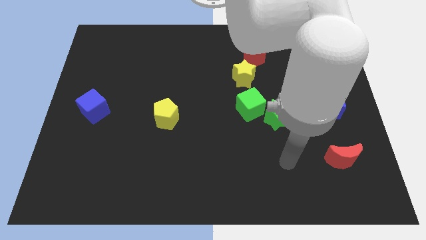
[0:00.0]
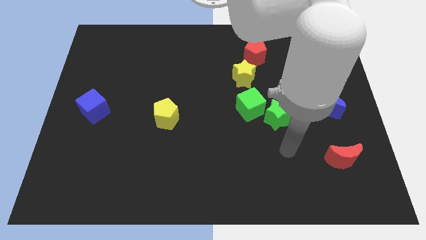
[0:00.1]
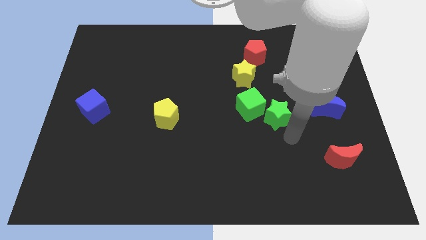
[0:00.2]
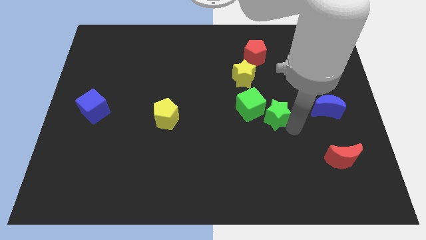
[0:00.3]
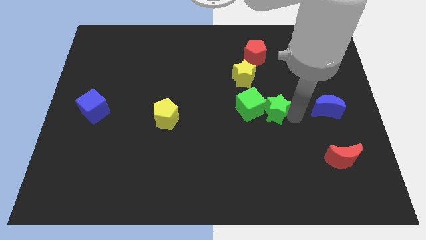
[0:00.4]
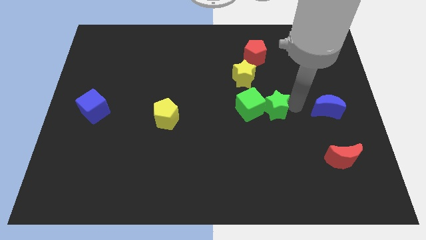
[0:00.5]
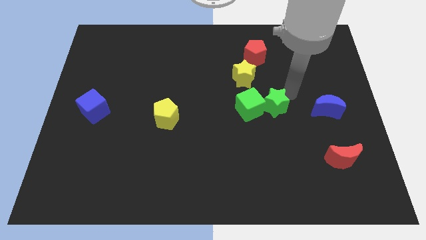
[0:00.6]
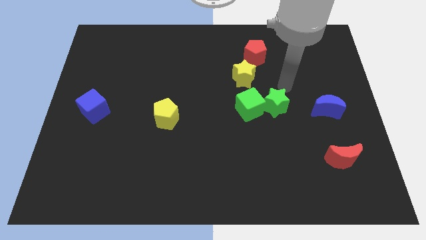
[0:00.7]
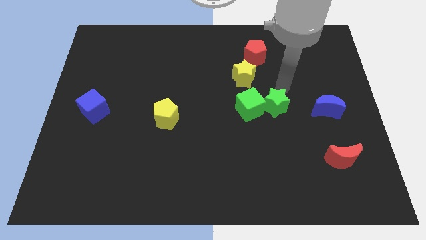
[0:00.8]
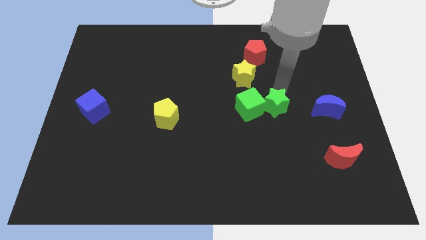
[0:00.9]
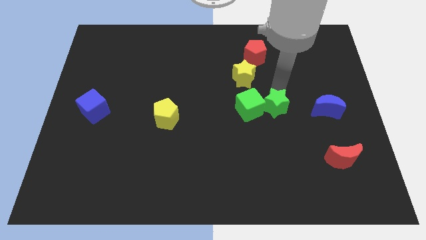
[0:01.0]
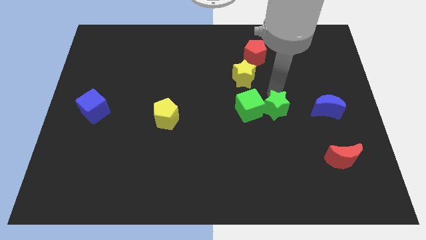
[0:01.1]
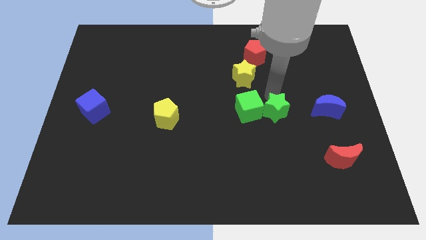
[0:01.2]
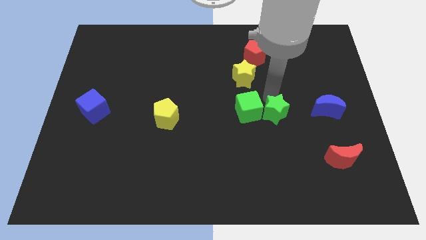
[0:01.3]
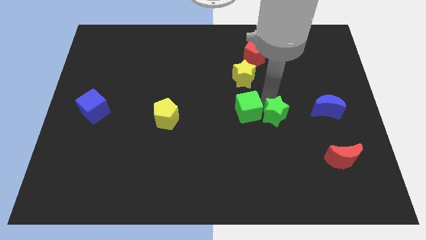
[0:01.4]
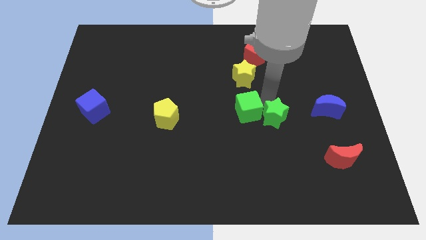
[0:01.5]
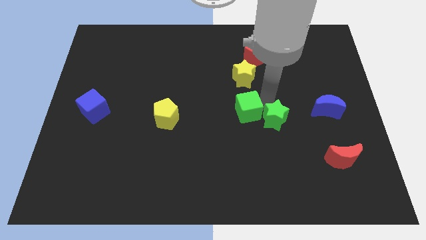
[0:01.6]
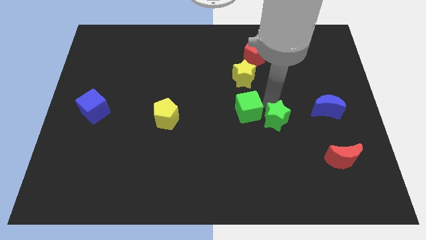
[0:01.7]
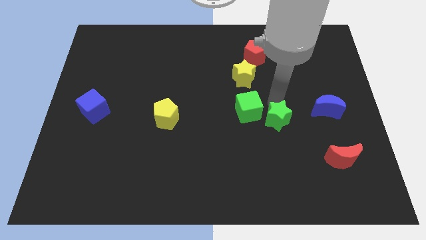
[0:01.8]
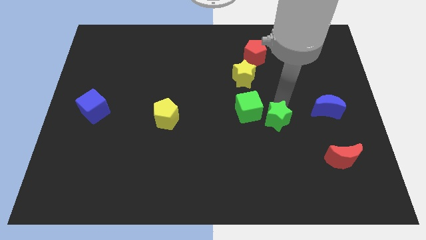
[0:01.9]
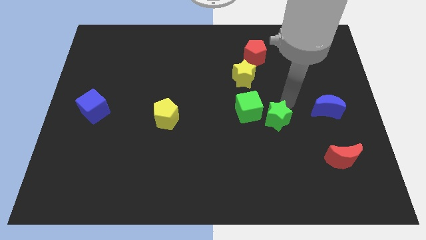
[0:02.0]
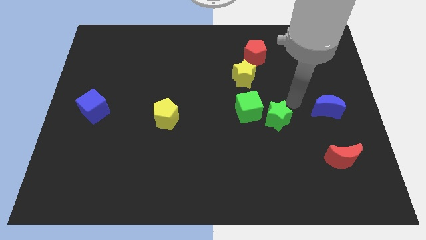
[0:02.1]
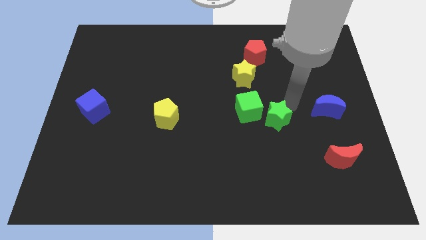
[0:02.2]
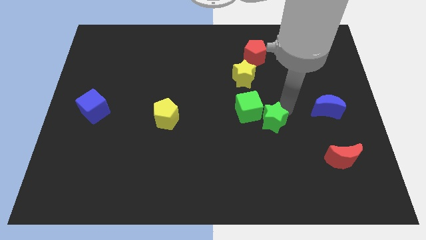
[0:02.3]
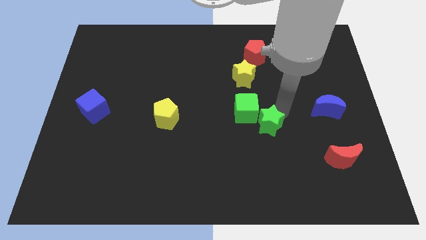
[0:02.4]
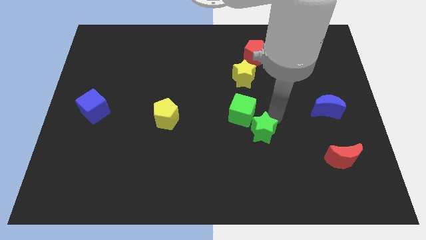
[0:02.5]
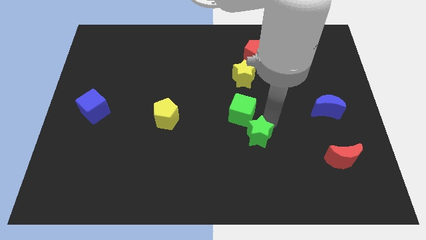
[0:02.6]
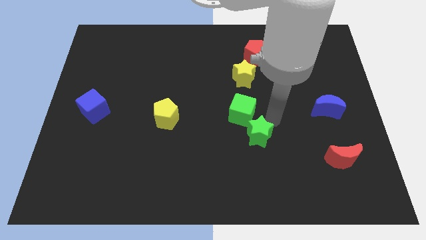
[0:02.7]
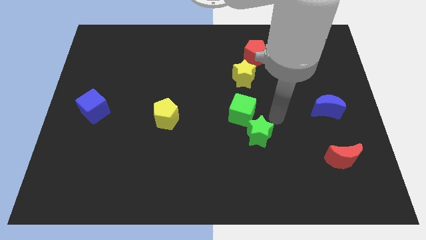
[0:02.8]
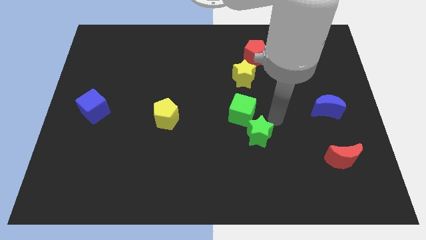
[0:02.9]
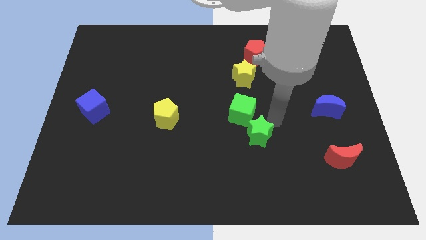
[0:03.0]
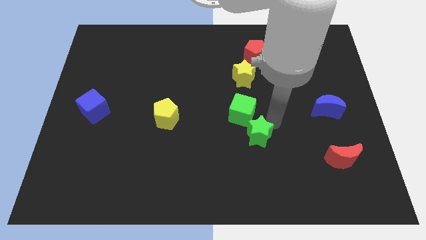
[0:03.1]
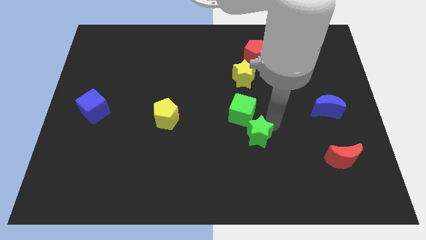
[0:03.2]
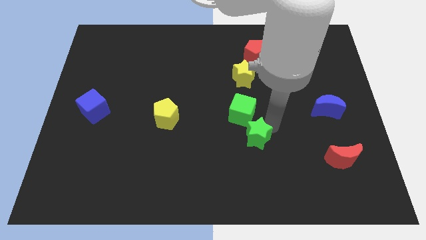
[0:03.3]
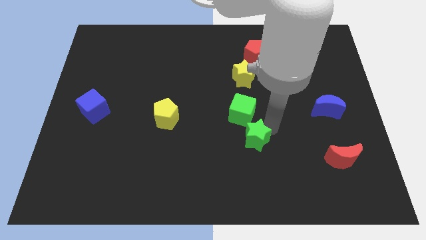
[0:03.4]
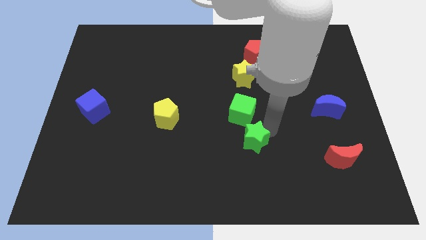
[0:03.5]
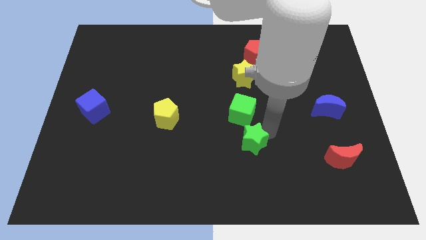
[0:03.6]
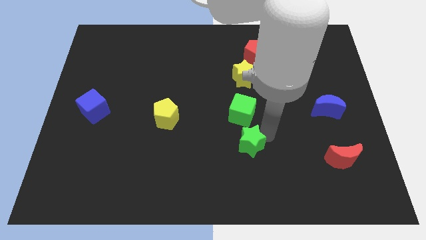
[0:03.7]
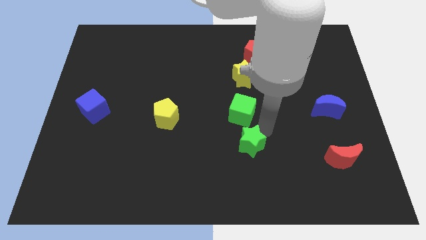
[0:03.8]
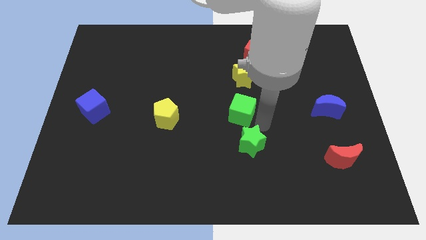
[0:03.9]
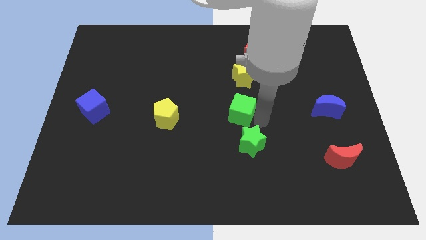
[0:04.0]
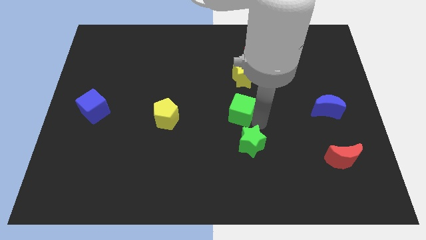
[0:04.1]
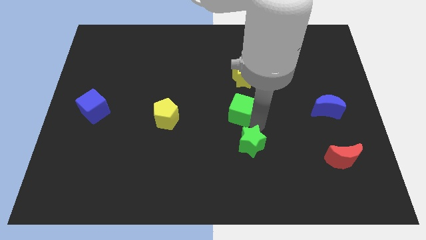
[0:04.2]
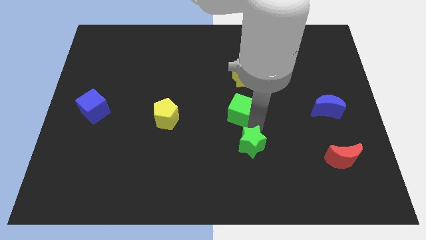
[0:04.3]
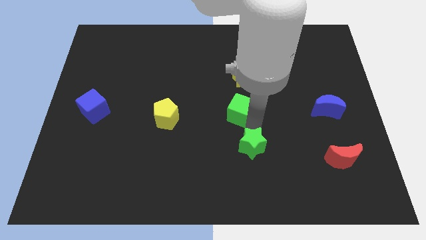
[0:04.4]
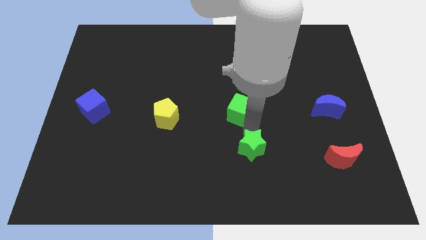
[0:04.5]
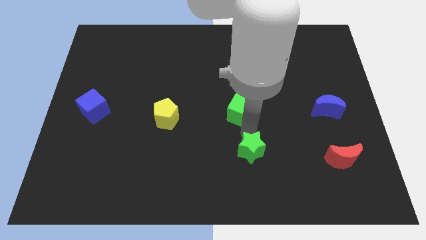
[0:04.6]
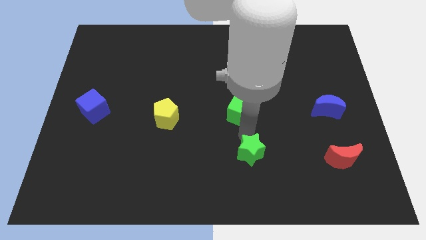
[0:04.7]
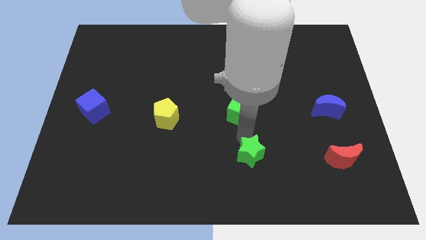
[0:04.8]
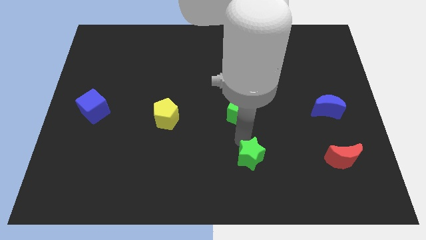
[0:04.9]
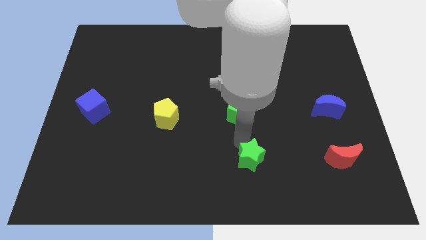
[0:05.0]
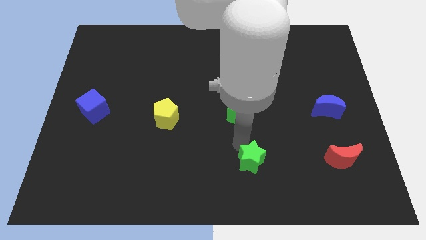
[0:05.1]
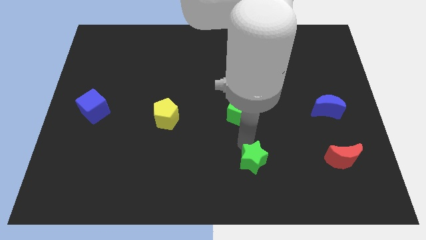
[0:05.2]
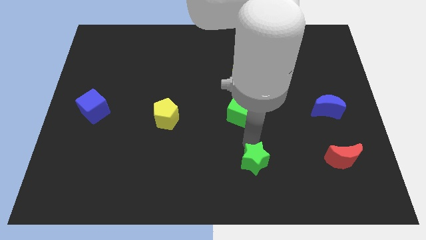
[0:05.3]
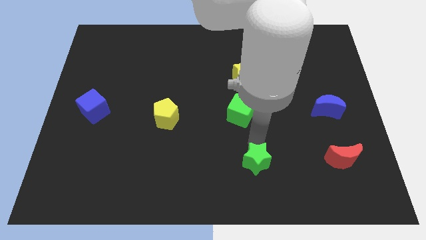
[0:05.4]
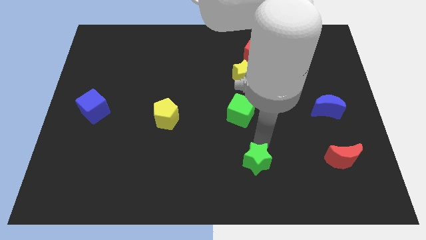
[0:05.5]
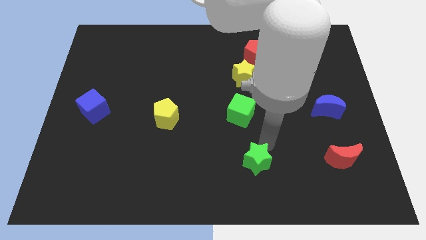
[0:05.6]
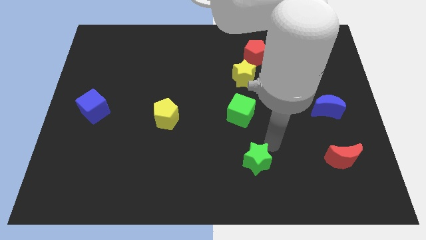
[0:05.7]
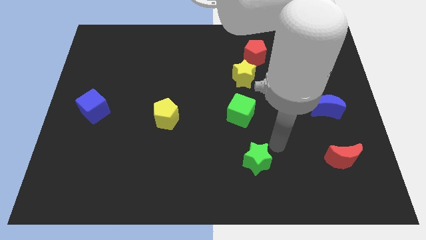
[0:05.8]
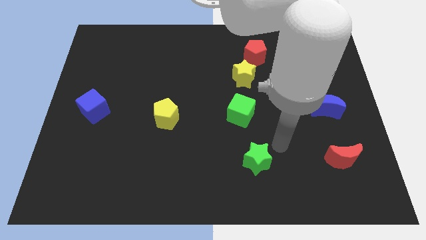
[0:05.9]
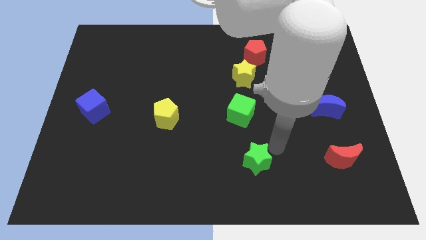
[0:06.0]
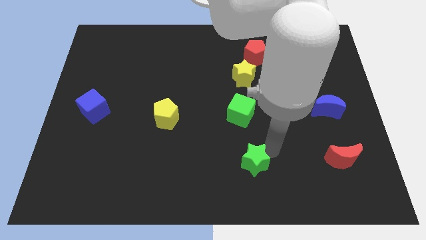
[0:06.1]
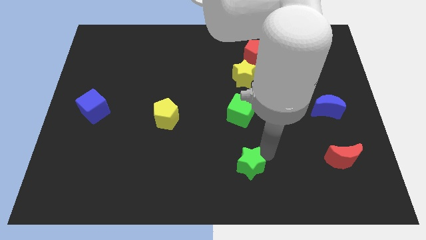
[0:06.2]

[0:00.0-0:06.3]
move the green star to the bottom
